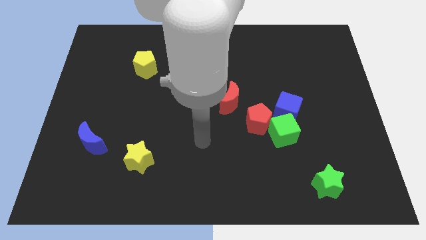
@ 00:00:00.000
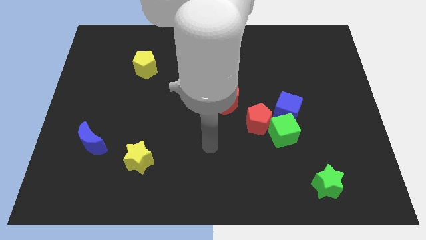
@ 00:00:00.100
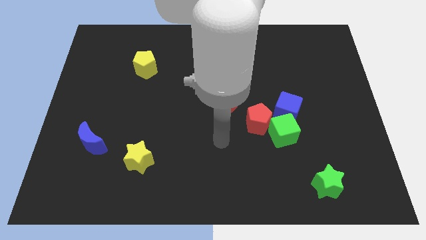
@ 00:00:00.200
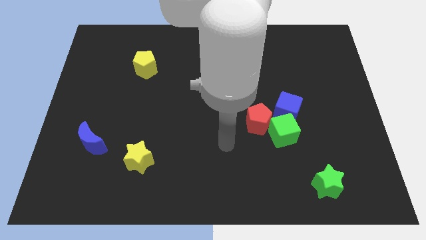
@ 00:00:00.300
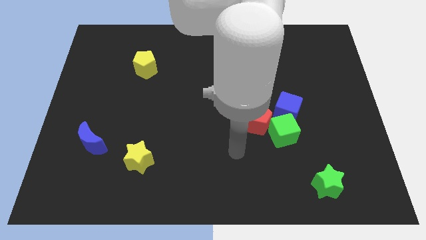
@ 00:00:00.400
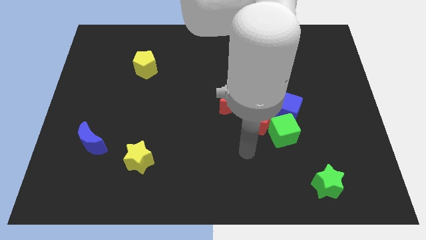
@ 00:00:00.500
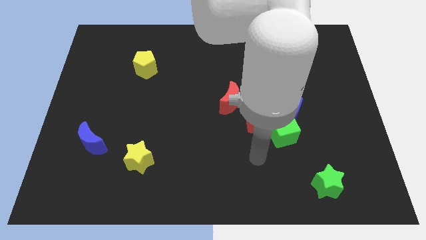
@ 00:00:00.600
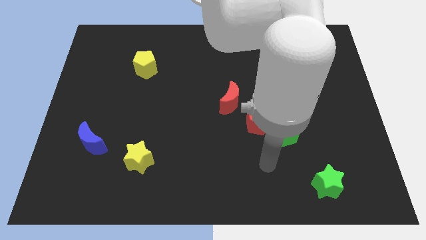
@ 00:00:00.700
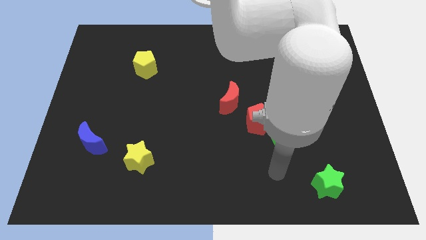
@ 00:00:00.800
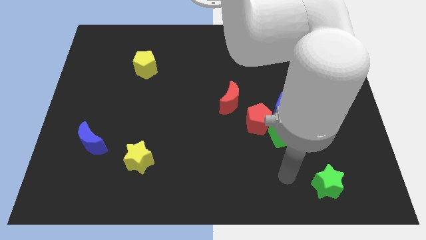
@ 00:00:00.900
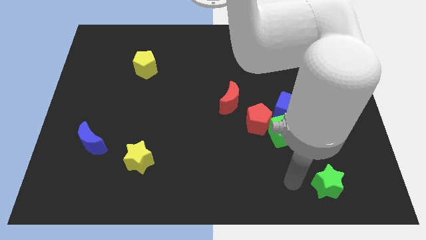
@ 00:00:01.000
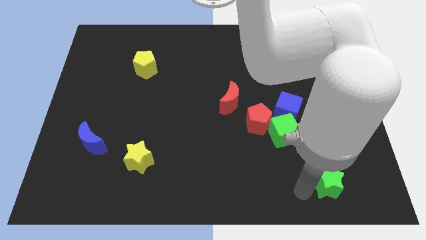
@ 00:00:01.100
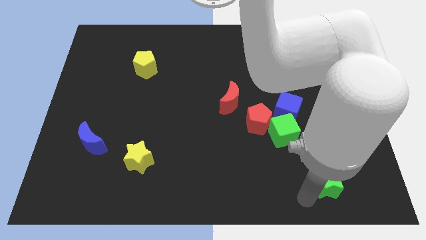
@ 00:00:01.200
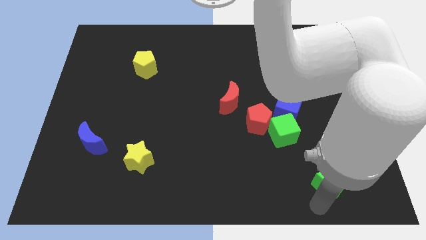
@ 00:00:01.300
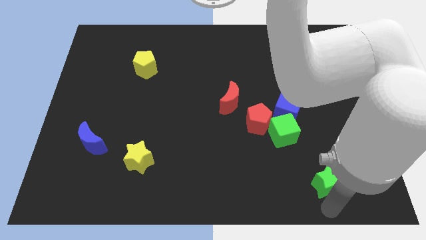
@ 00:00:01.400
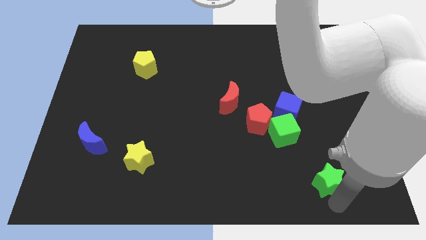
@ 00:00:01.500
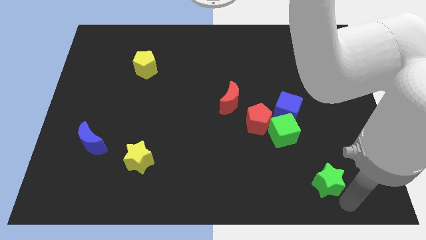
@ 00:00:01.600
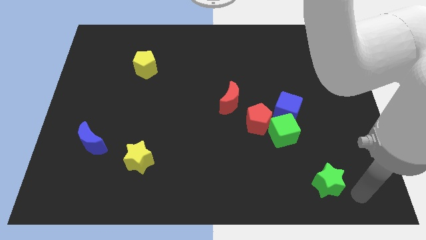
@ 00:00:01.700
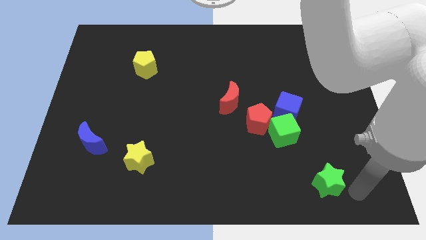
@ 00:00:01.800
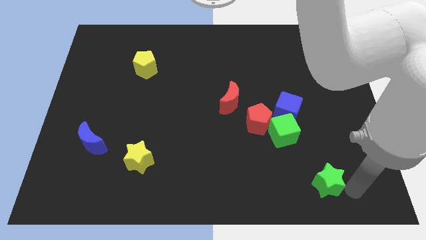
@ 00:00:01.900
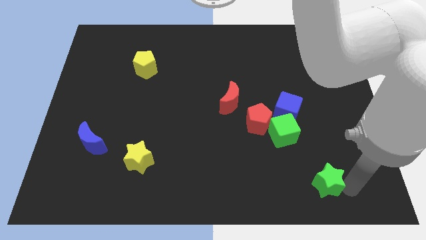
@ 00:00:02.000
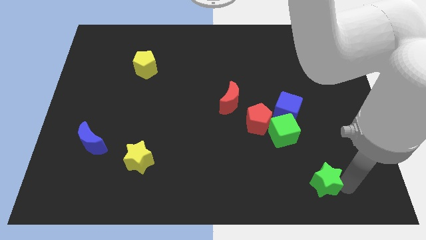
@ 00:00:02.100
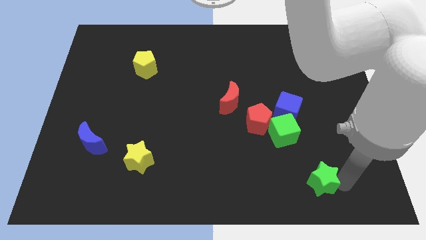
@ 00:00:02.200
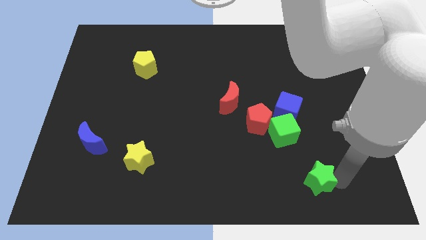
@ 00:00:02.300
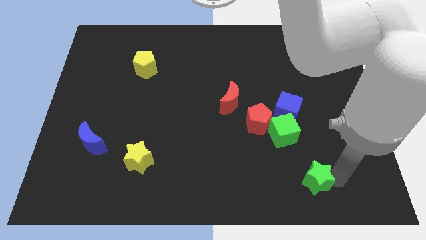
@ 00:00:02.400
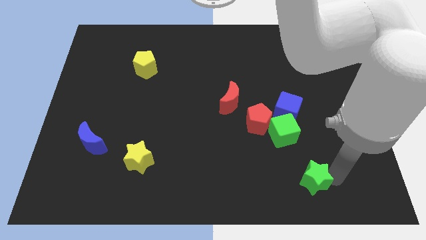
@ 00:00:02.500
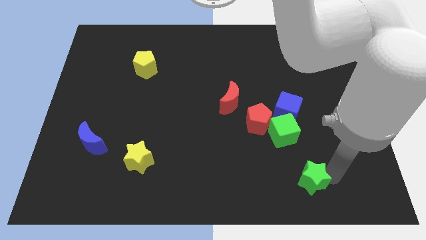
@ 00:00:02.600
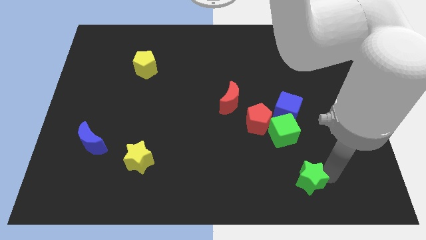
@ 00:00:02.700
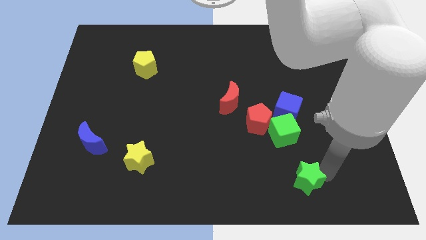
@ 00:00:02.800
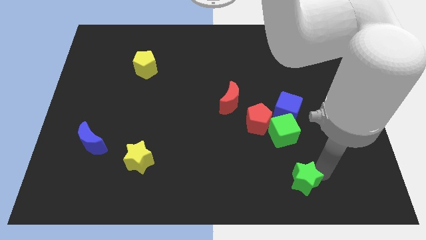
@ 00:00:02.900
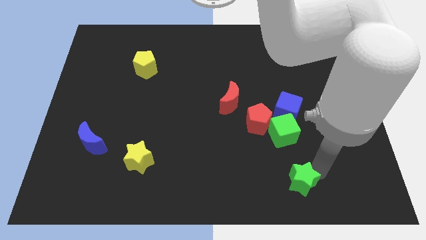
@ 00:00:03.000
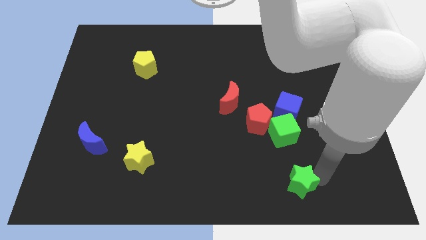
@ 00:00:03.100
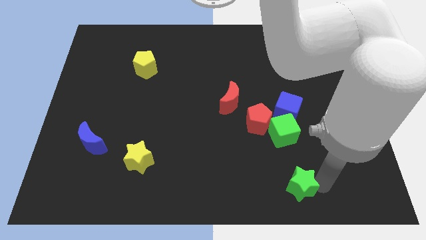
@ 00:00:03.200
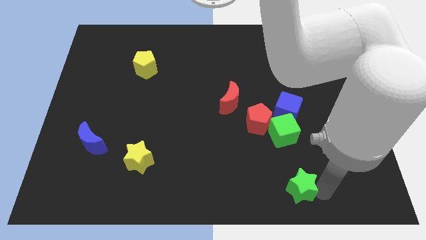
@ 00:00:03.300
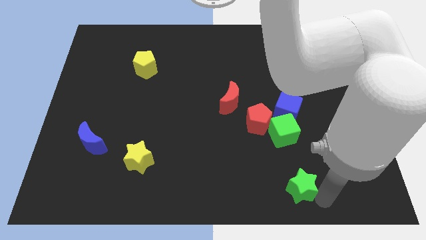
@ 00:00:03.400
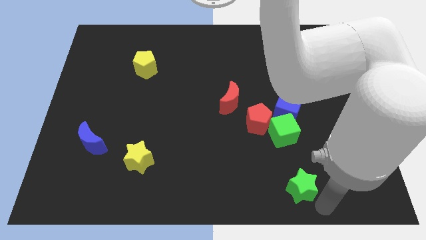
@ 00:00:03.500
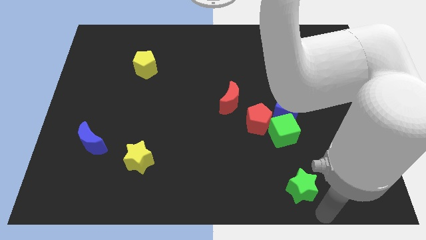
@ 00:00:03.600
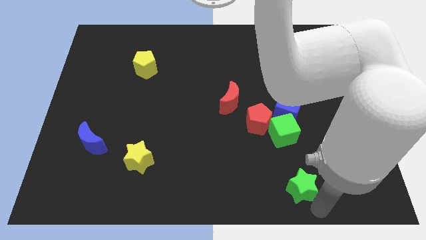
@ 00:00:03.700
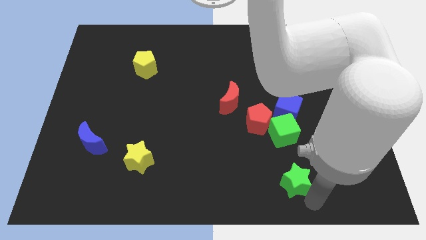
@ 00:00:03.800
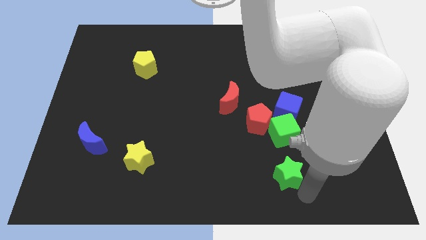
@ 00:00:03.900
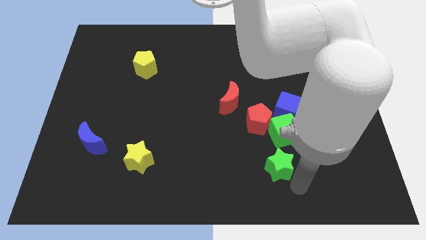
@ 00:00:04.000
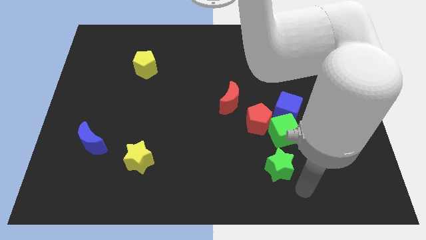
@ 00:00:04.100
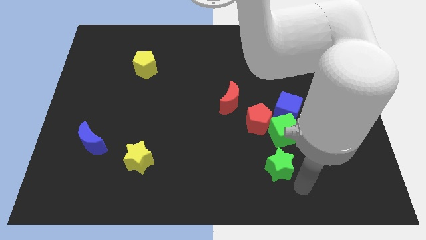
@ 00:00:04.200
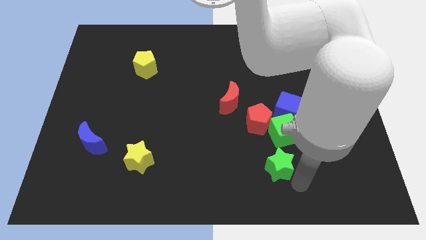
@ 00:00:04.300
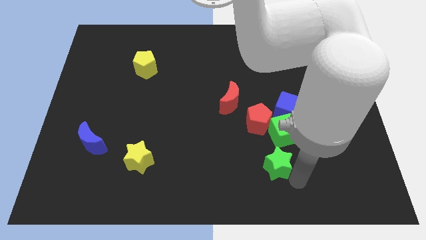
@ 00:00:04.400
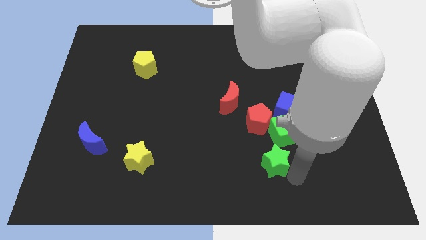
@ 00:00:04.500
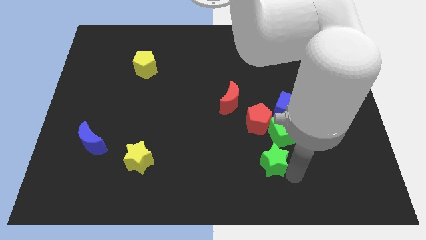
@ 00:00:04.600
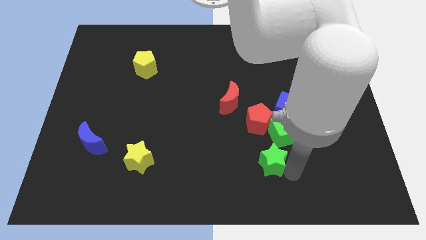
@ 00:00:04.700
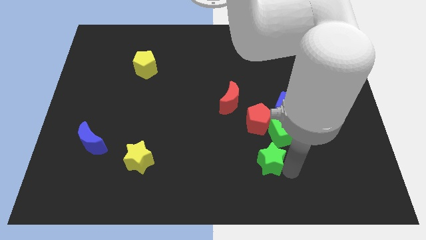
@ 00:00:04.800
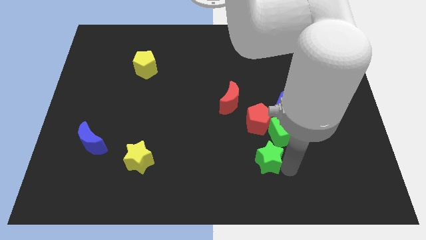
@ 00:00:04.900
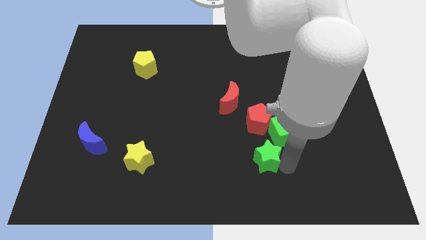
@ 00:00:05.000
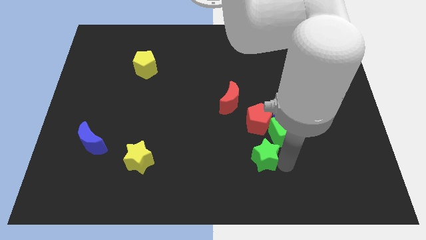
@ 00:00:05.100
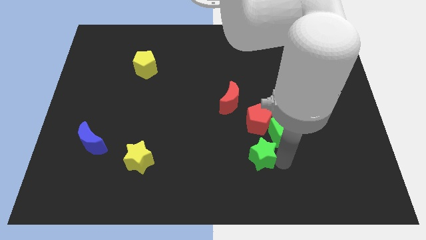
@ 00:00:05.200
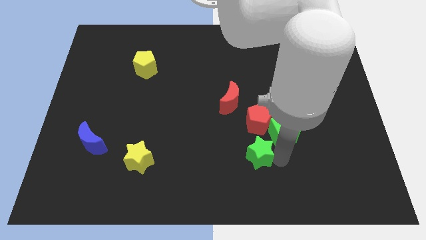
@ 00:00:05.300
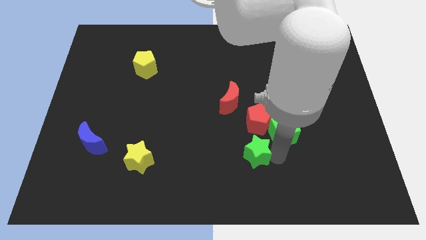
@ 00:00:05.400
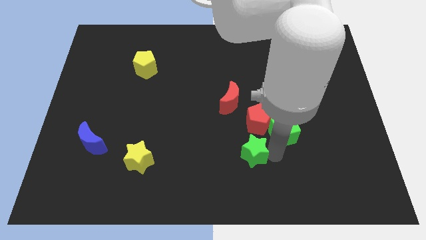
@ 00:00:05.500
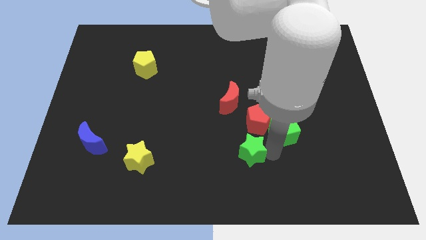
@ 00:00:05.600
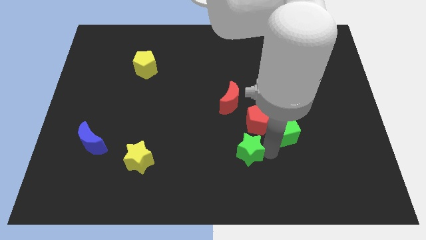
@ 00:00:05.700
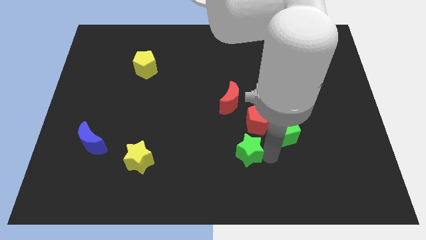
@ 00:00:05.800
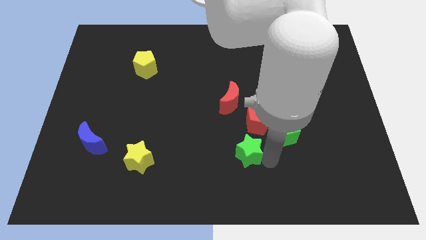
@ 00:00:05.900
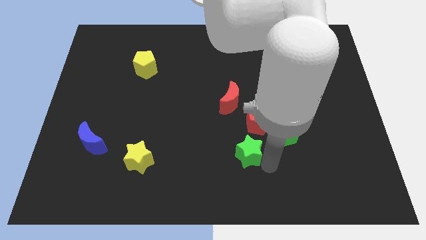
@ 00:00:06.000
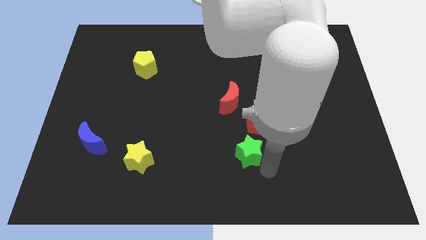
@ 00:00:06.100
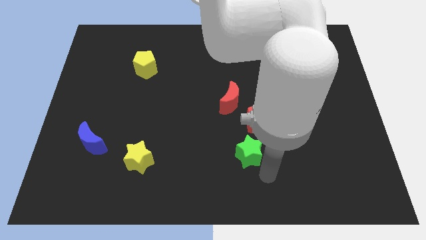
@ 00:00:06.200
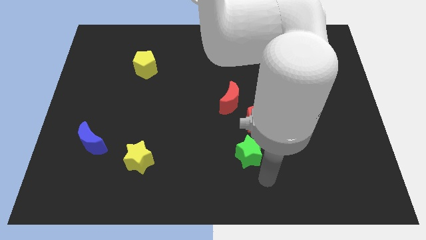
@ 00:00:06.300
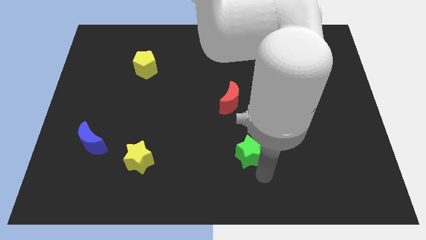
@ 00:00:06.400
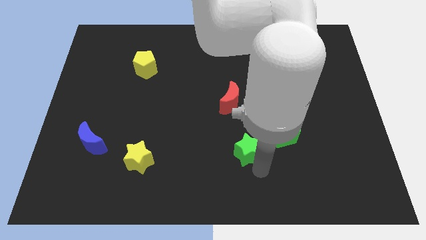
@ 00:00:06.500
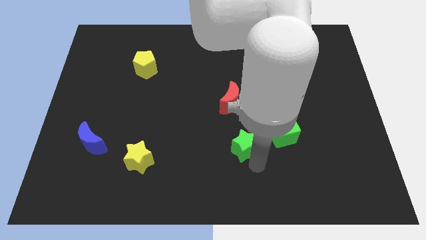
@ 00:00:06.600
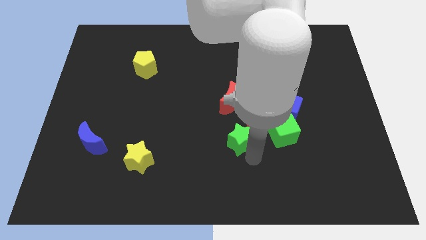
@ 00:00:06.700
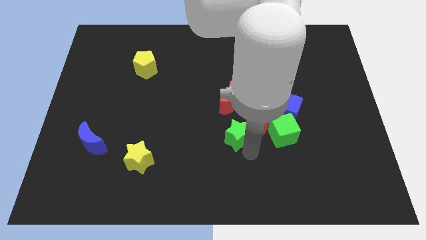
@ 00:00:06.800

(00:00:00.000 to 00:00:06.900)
slide the green star up and left

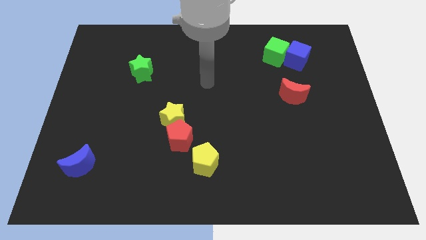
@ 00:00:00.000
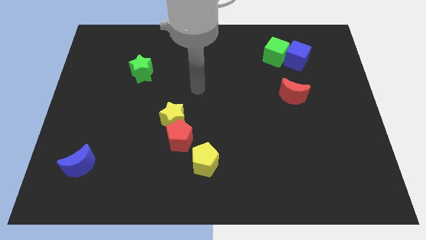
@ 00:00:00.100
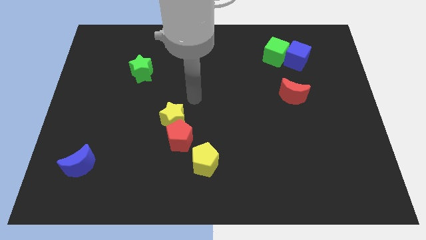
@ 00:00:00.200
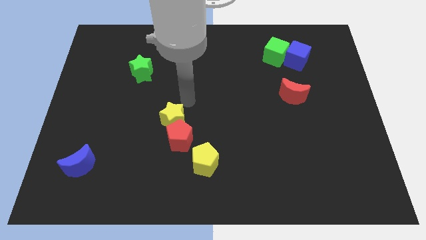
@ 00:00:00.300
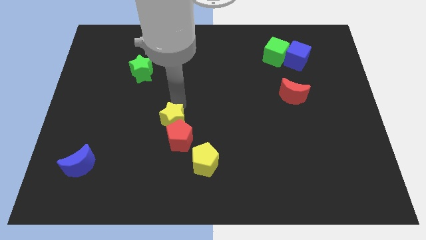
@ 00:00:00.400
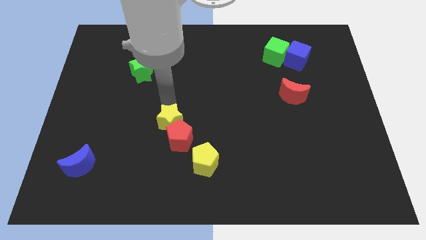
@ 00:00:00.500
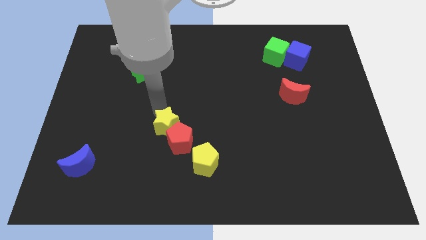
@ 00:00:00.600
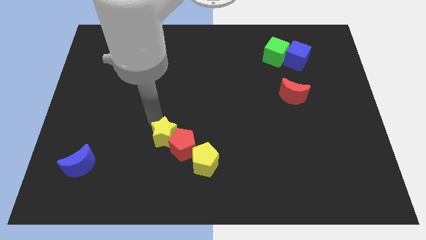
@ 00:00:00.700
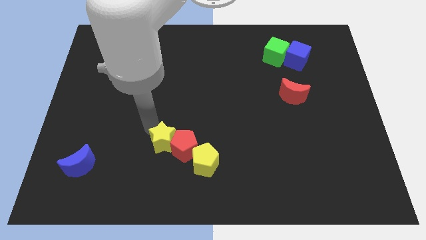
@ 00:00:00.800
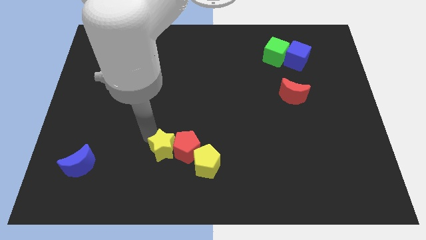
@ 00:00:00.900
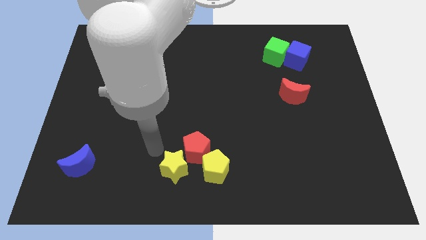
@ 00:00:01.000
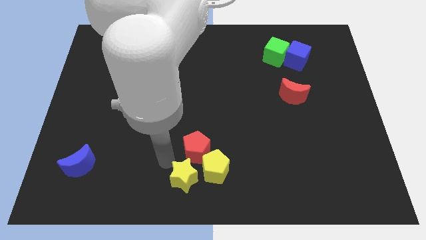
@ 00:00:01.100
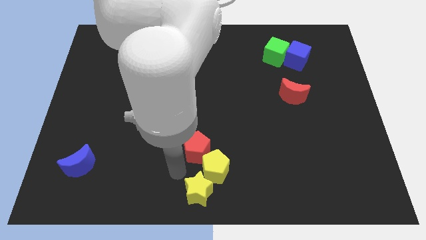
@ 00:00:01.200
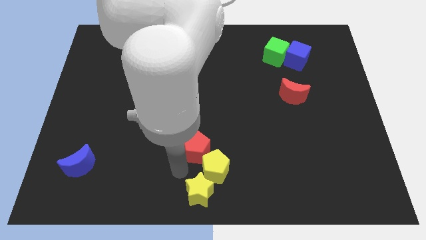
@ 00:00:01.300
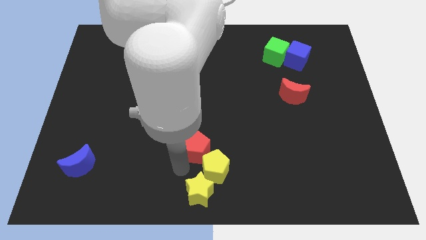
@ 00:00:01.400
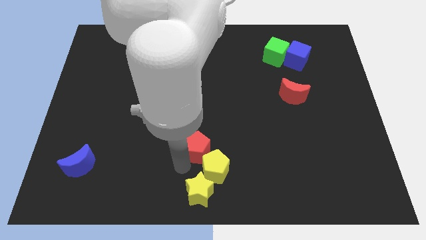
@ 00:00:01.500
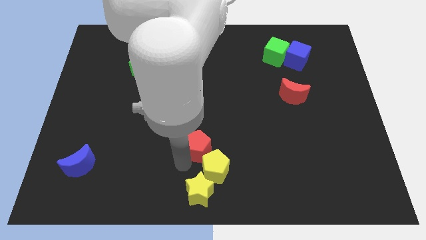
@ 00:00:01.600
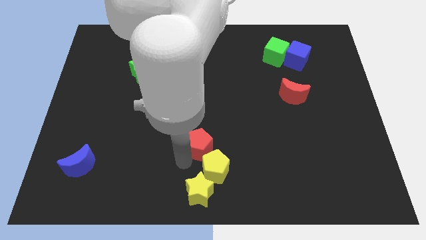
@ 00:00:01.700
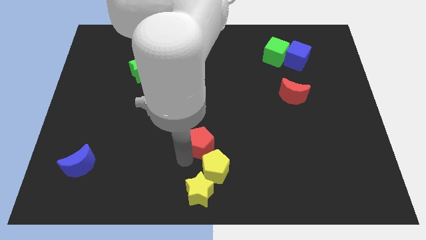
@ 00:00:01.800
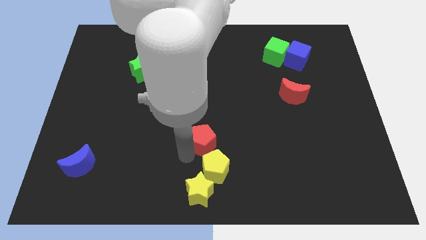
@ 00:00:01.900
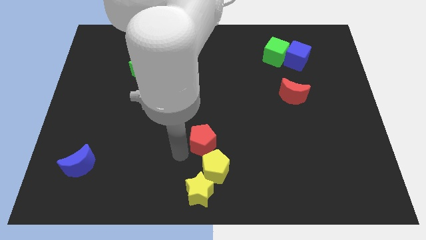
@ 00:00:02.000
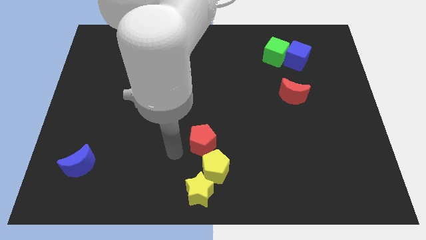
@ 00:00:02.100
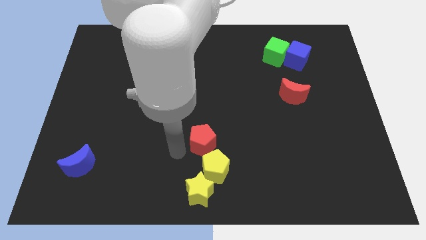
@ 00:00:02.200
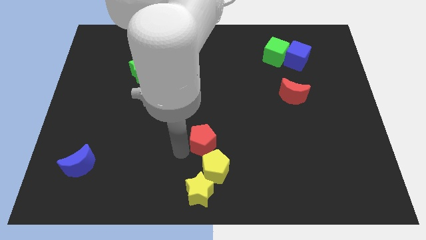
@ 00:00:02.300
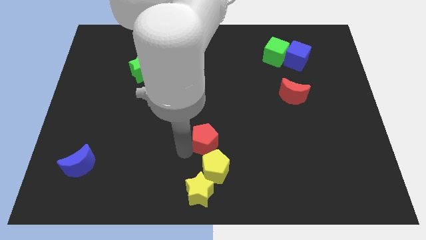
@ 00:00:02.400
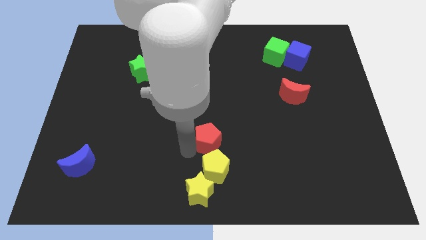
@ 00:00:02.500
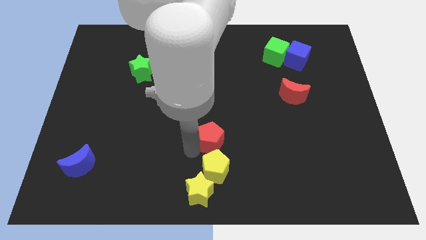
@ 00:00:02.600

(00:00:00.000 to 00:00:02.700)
push the red pentagon right a little bit
